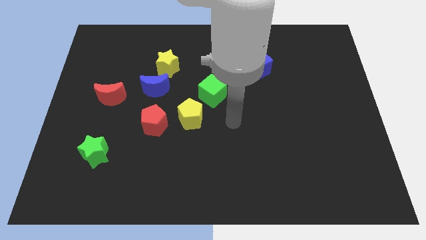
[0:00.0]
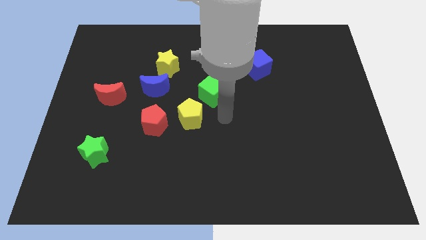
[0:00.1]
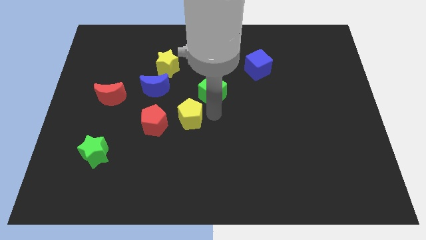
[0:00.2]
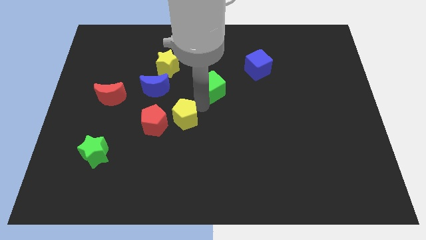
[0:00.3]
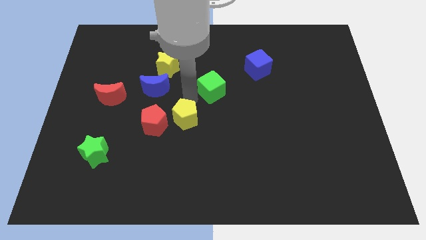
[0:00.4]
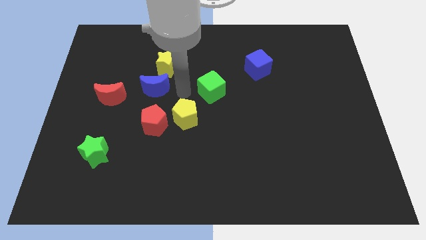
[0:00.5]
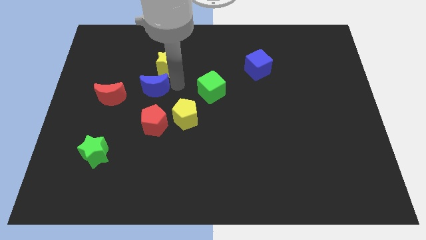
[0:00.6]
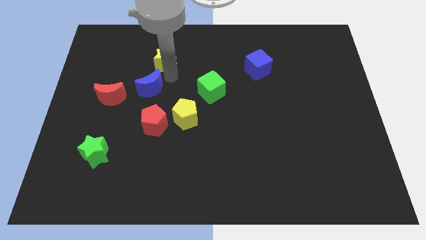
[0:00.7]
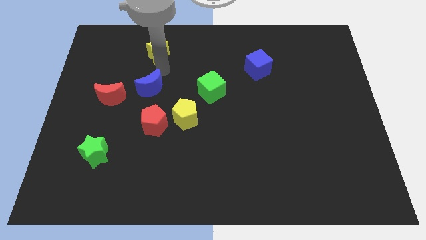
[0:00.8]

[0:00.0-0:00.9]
pull the blue moon apart from the yellow star

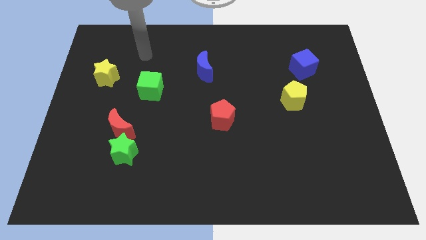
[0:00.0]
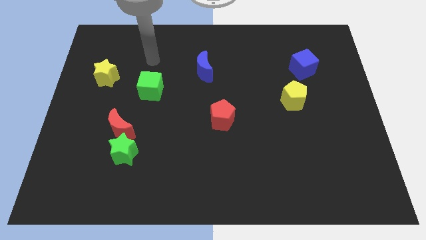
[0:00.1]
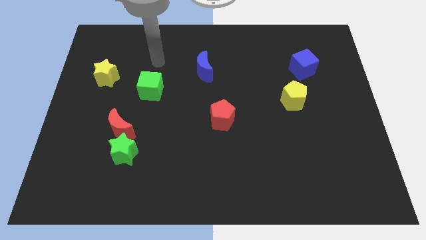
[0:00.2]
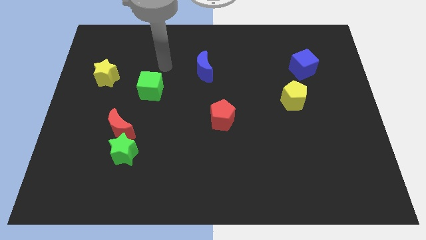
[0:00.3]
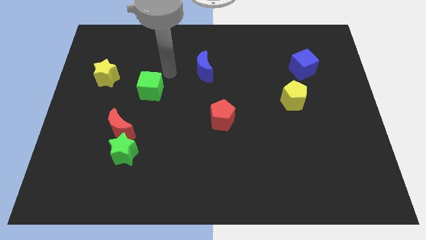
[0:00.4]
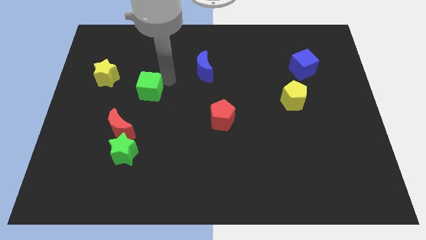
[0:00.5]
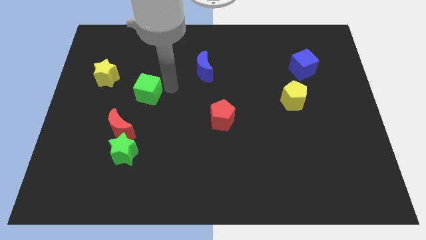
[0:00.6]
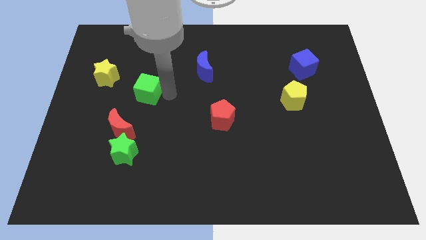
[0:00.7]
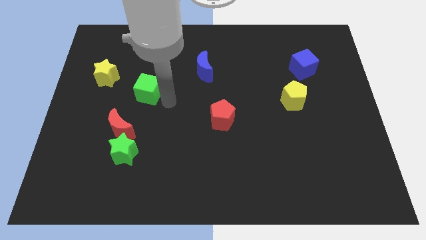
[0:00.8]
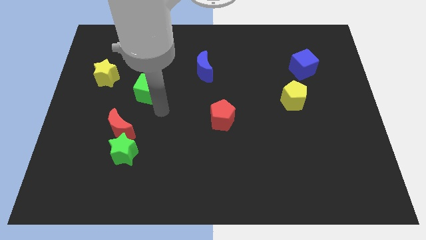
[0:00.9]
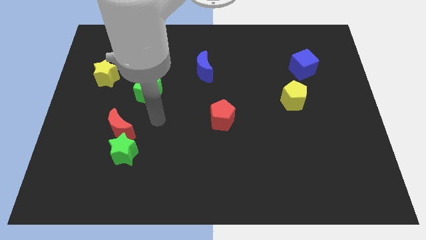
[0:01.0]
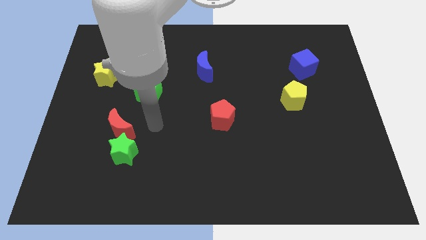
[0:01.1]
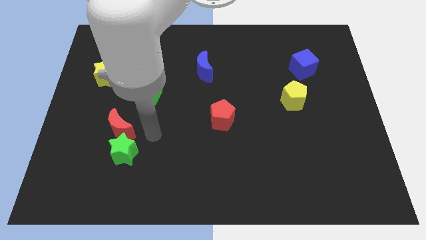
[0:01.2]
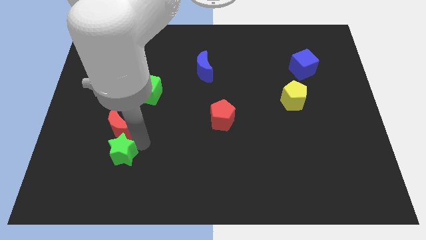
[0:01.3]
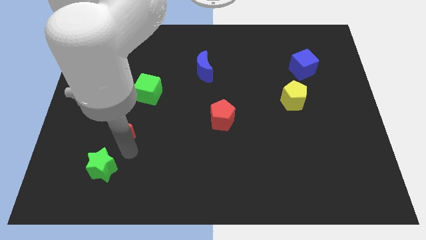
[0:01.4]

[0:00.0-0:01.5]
pull the red moon apart from the green star

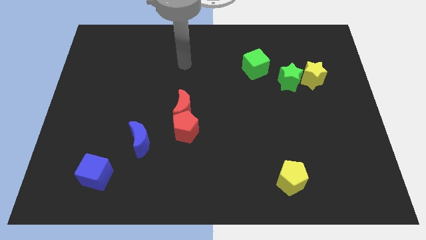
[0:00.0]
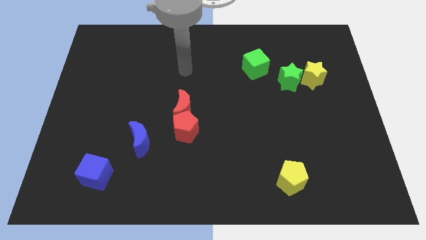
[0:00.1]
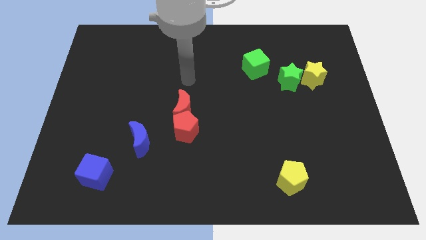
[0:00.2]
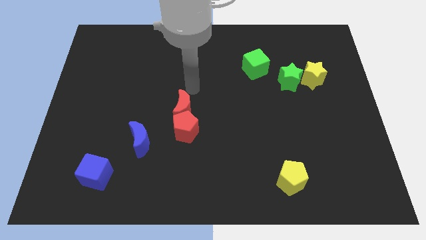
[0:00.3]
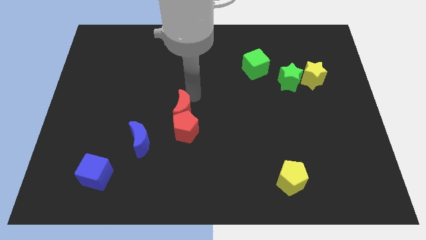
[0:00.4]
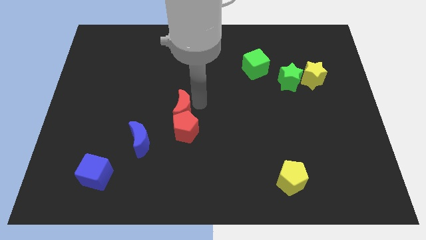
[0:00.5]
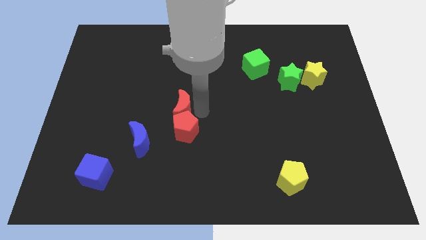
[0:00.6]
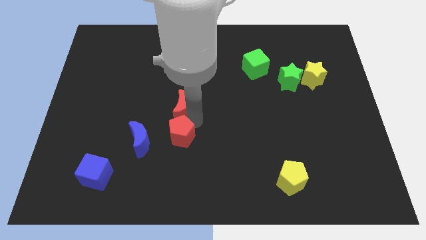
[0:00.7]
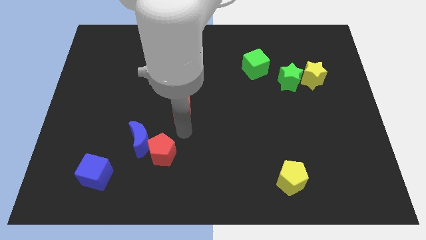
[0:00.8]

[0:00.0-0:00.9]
separate the red moon from the red pentagon

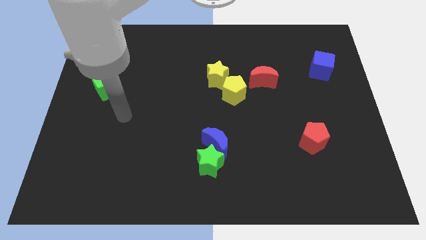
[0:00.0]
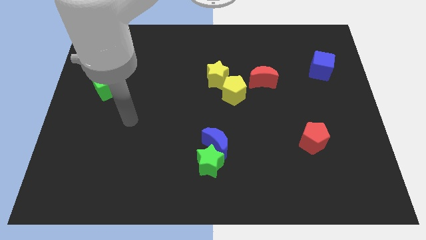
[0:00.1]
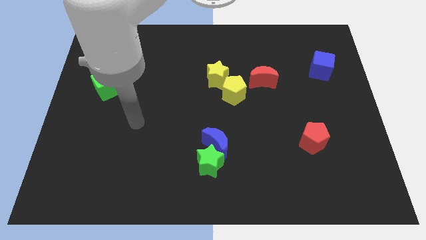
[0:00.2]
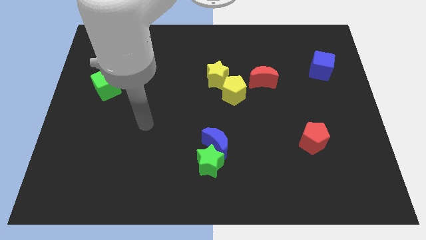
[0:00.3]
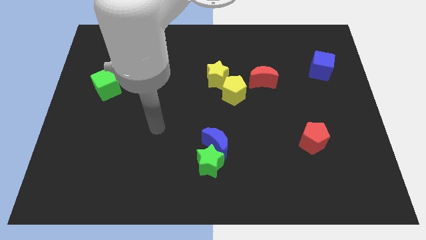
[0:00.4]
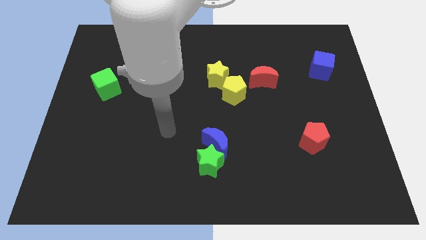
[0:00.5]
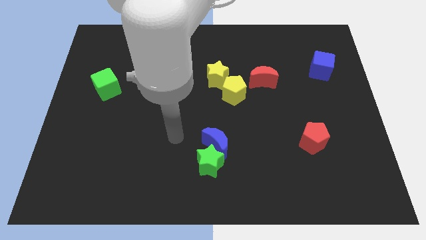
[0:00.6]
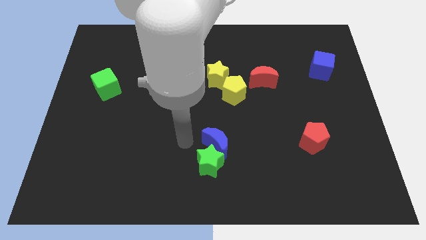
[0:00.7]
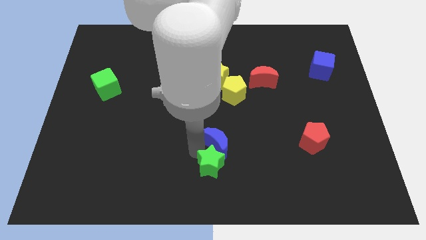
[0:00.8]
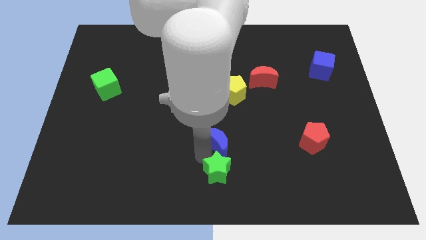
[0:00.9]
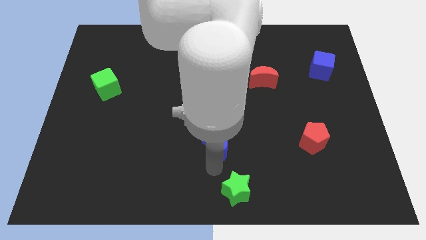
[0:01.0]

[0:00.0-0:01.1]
separate the blue moon from the green star

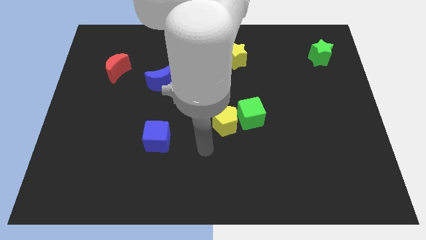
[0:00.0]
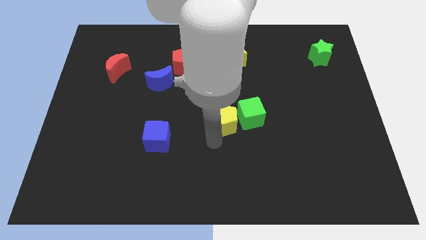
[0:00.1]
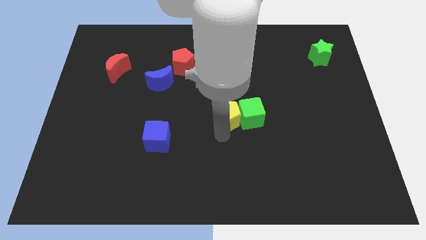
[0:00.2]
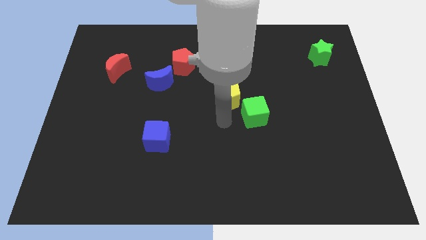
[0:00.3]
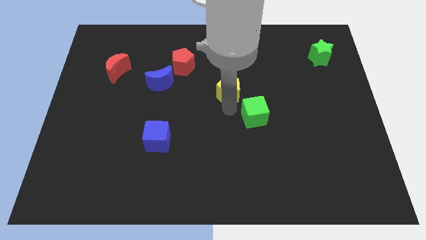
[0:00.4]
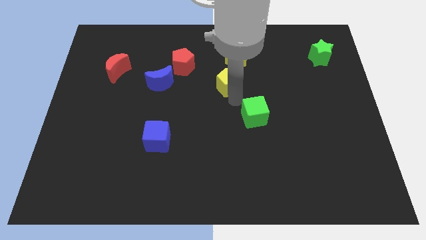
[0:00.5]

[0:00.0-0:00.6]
pull the green cube apart from the yellow pentagon

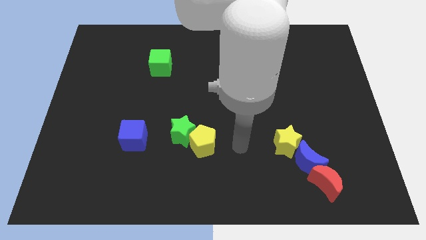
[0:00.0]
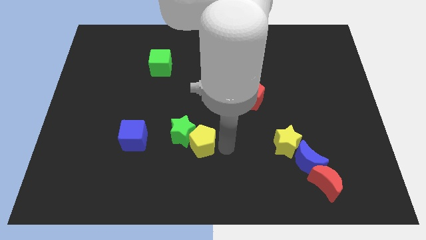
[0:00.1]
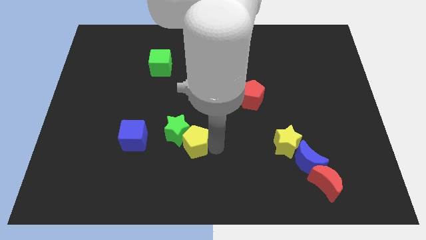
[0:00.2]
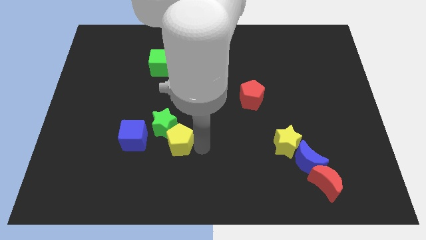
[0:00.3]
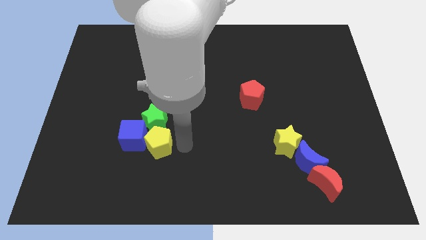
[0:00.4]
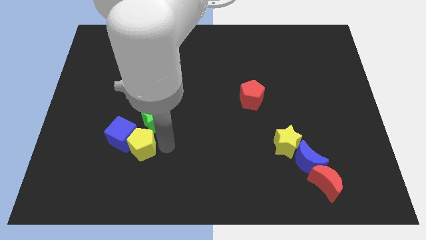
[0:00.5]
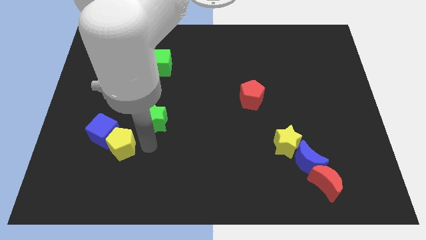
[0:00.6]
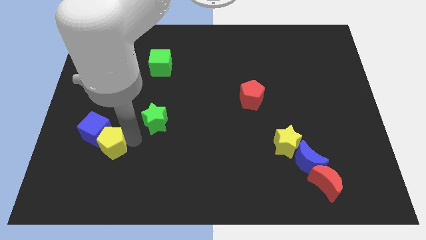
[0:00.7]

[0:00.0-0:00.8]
separate the green star from the yellow pentagon

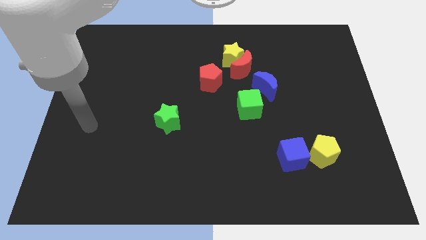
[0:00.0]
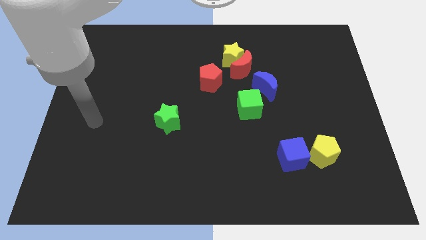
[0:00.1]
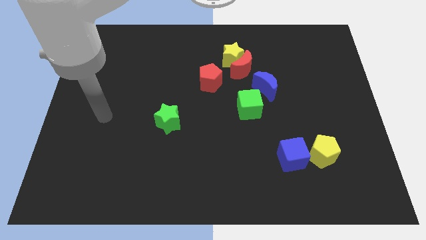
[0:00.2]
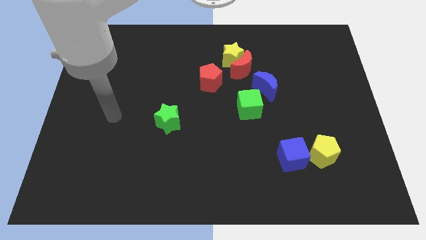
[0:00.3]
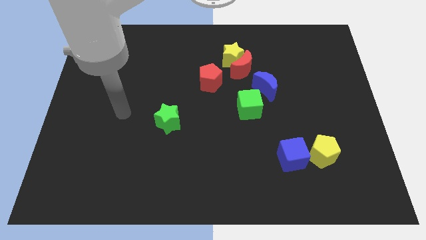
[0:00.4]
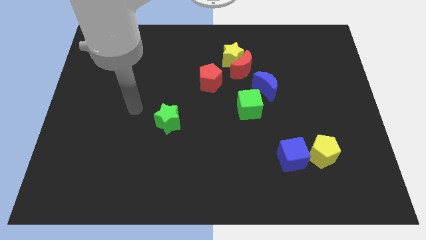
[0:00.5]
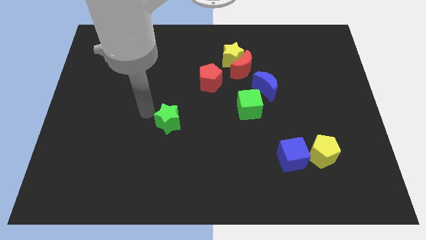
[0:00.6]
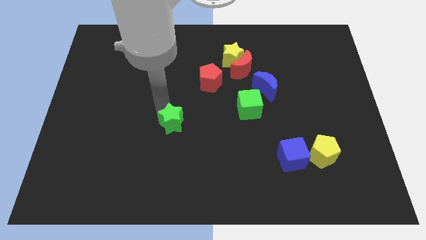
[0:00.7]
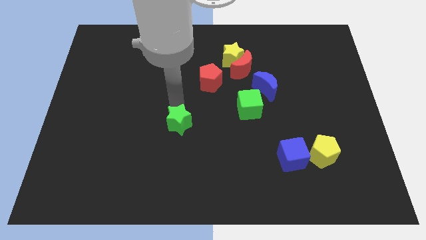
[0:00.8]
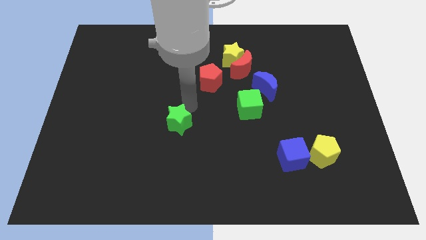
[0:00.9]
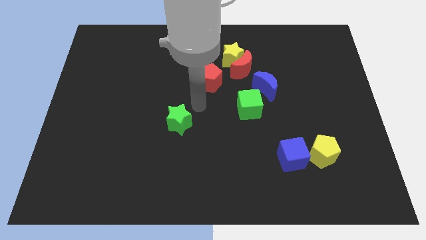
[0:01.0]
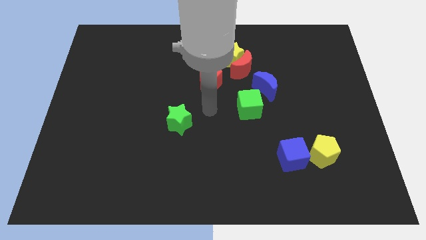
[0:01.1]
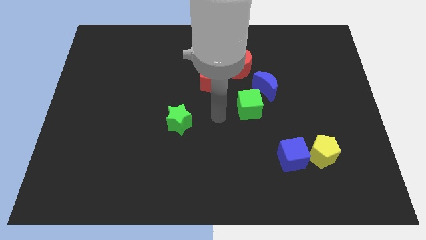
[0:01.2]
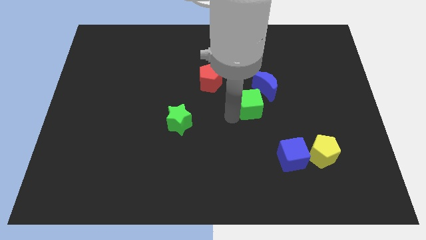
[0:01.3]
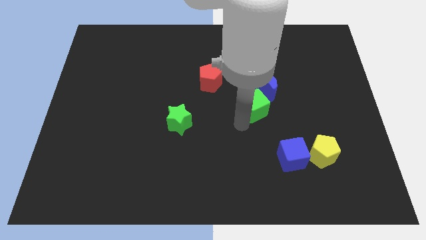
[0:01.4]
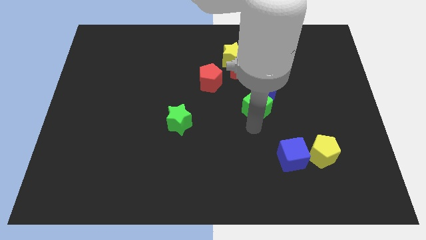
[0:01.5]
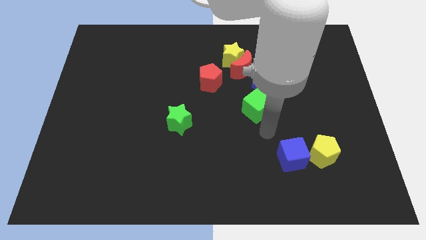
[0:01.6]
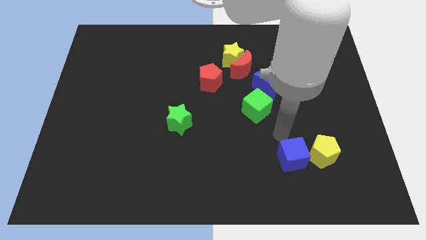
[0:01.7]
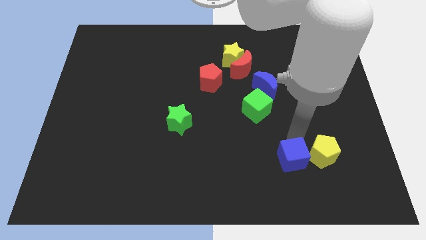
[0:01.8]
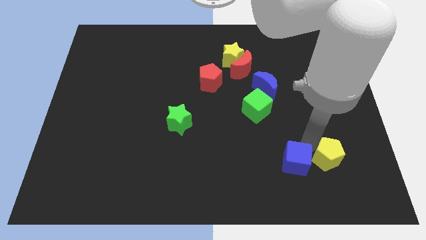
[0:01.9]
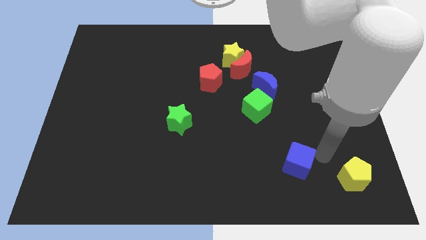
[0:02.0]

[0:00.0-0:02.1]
pull the blue cube apart from the yellow pentagon

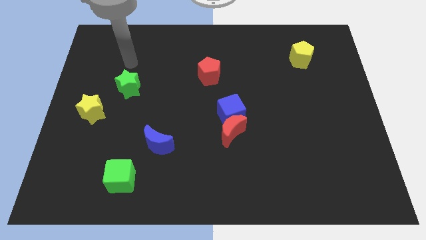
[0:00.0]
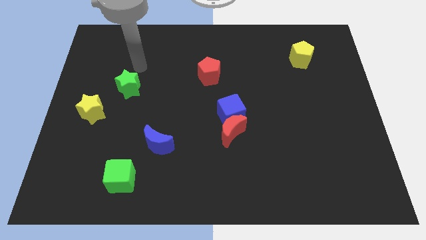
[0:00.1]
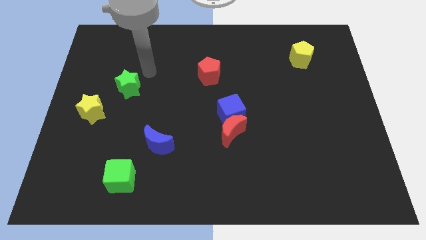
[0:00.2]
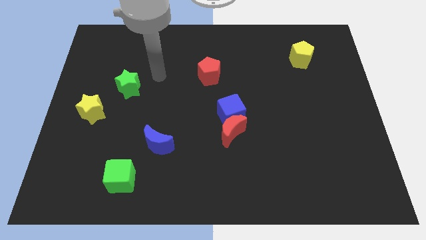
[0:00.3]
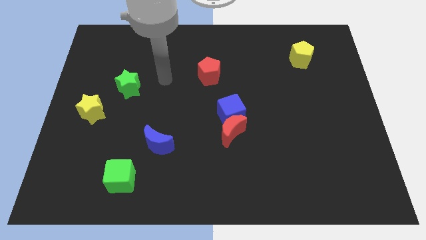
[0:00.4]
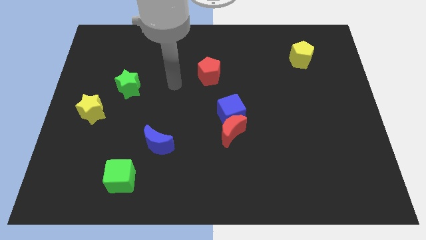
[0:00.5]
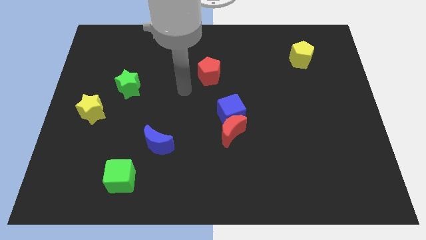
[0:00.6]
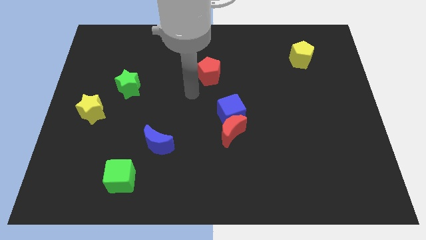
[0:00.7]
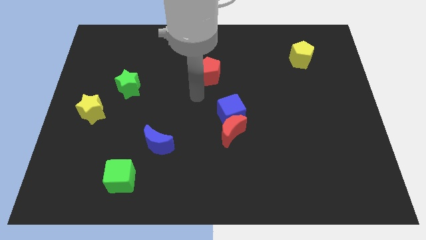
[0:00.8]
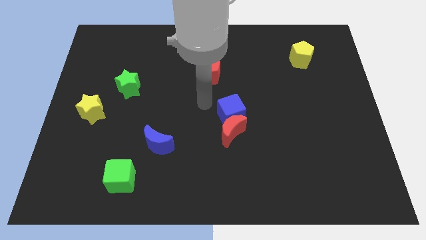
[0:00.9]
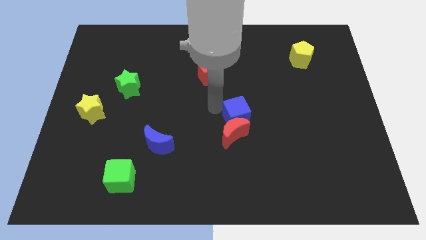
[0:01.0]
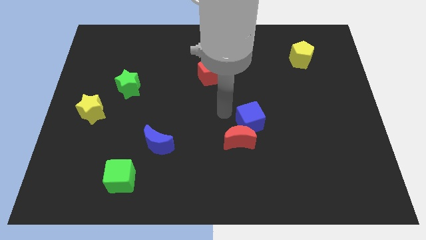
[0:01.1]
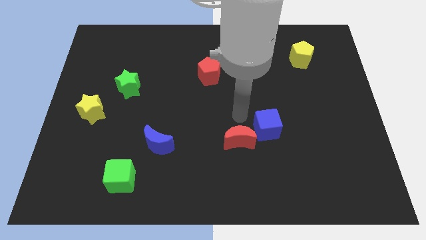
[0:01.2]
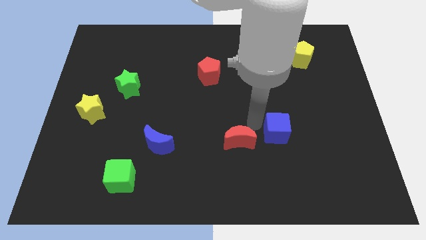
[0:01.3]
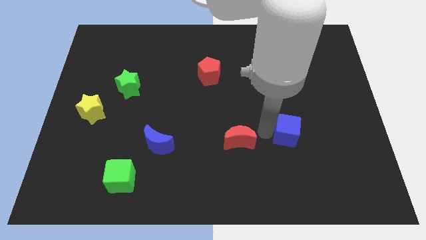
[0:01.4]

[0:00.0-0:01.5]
pull the red moon apart from the blue cube
